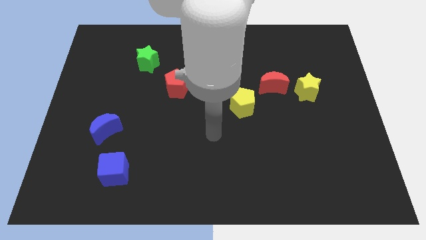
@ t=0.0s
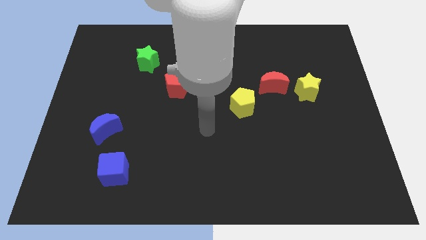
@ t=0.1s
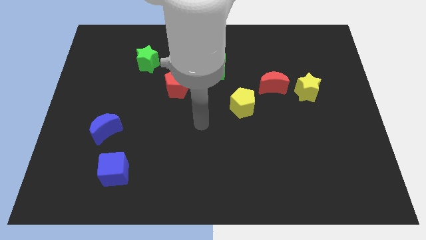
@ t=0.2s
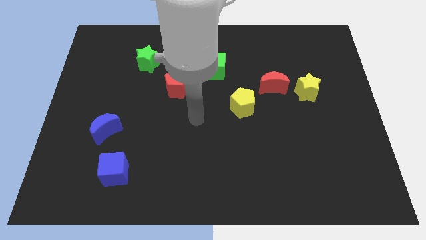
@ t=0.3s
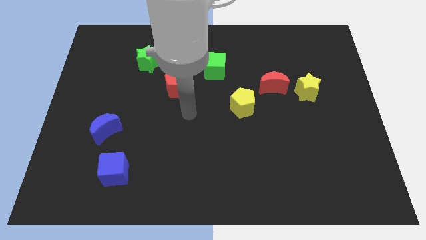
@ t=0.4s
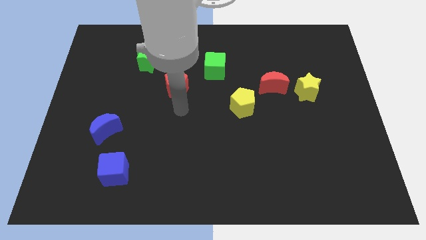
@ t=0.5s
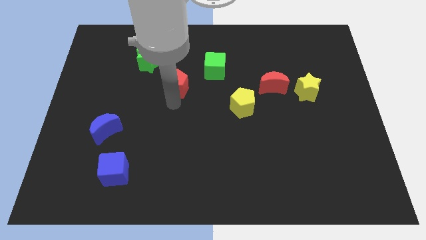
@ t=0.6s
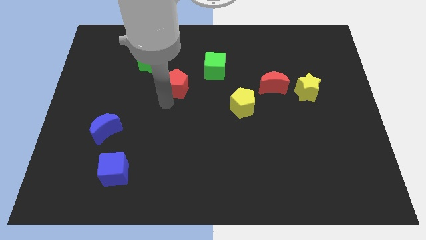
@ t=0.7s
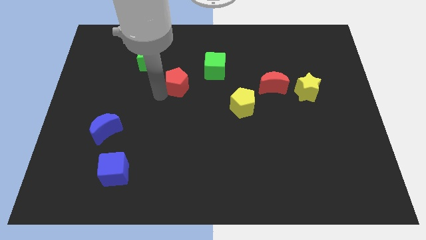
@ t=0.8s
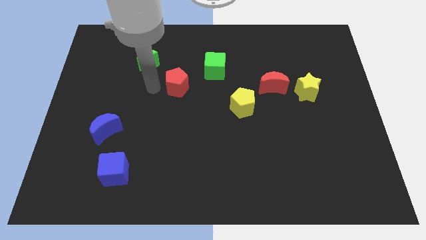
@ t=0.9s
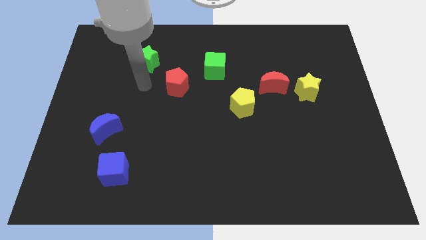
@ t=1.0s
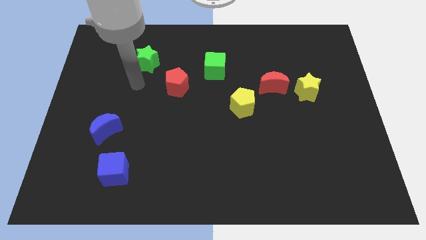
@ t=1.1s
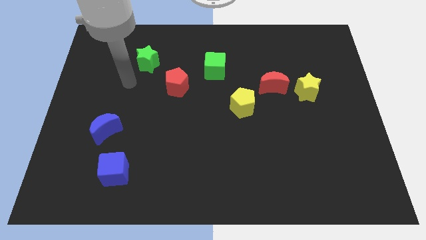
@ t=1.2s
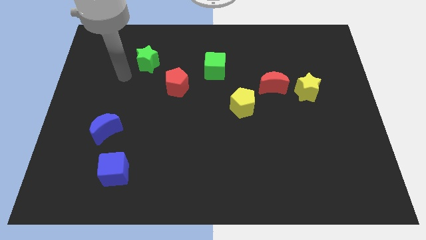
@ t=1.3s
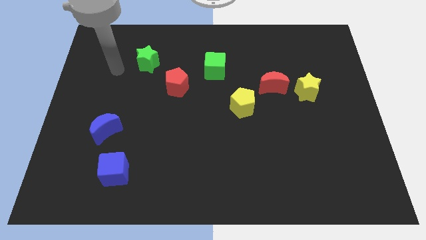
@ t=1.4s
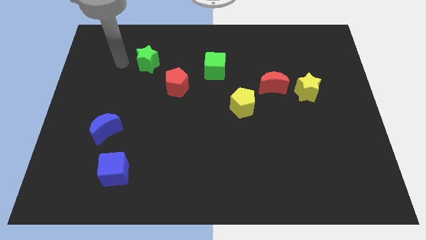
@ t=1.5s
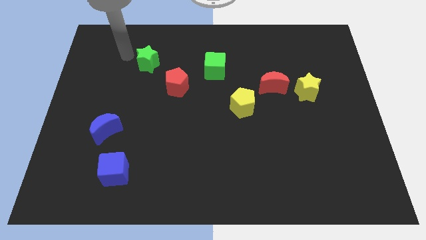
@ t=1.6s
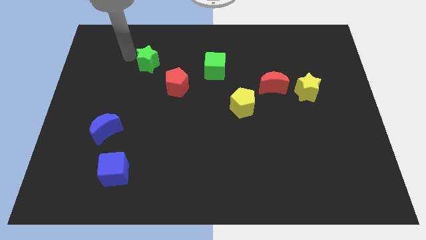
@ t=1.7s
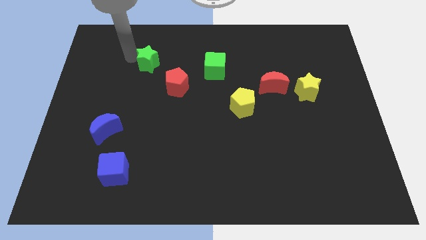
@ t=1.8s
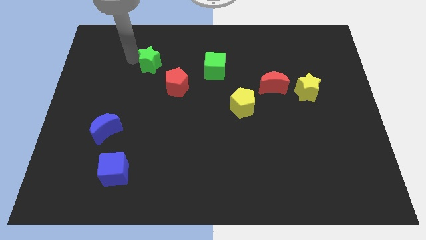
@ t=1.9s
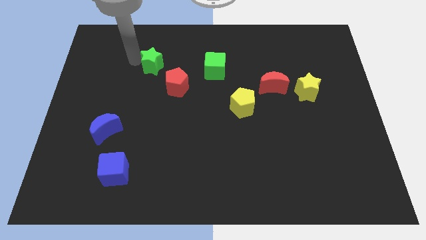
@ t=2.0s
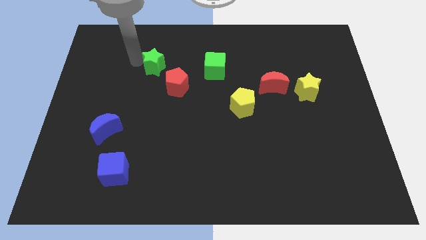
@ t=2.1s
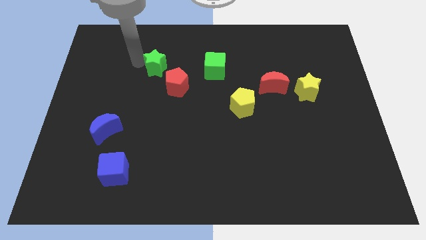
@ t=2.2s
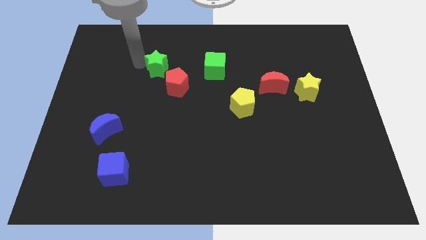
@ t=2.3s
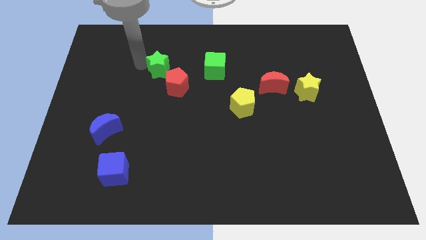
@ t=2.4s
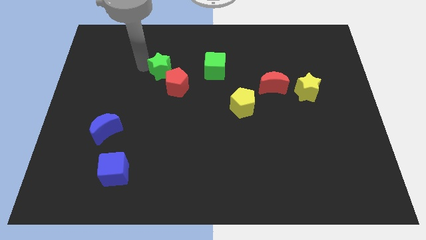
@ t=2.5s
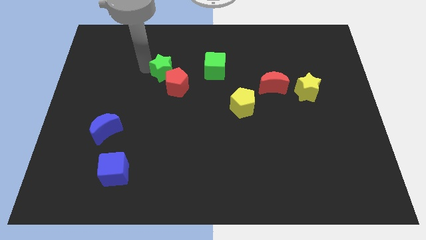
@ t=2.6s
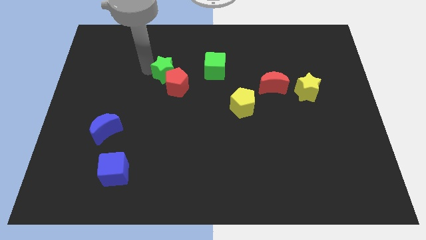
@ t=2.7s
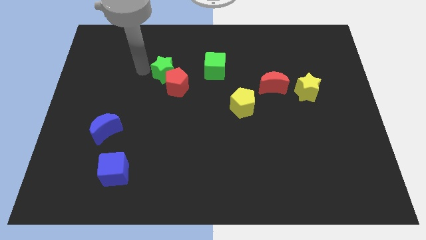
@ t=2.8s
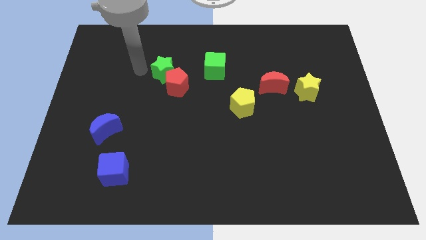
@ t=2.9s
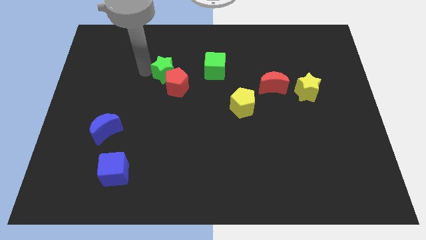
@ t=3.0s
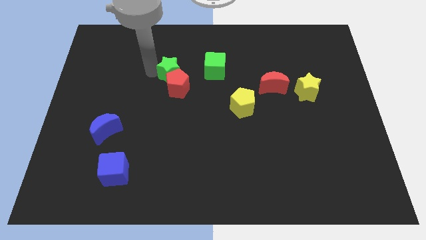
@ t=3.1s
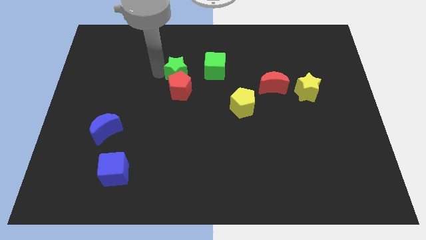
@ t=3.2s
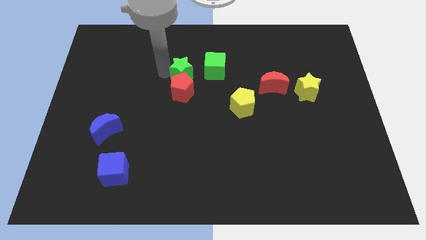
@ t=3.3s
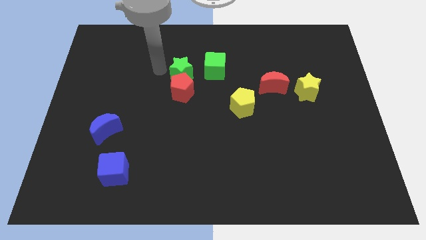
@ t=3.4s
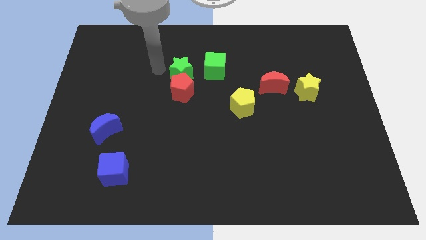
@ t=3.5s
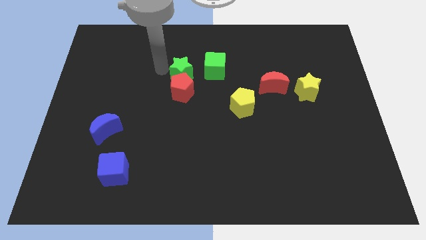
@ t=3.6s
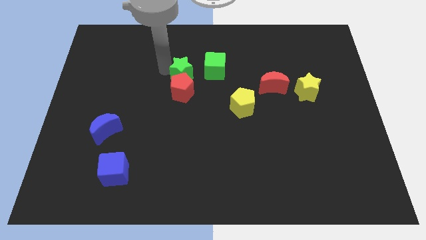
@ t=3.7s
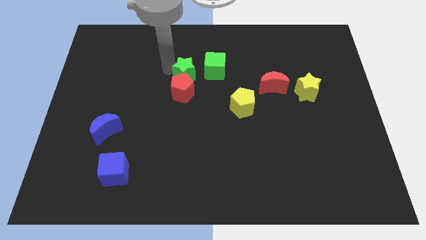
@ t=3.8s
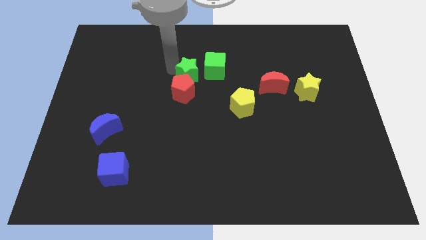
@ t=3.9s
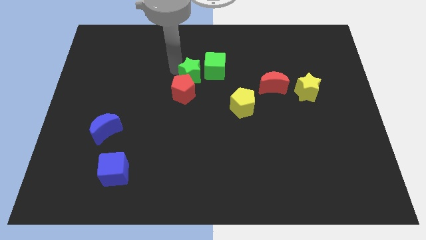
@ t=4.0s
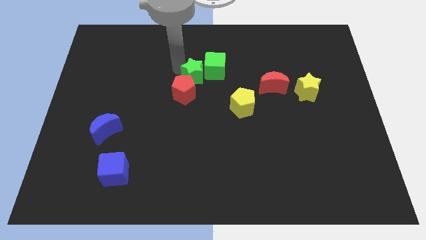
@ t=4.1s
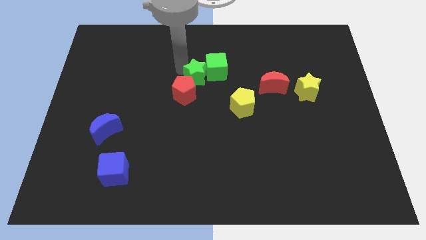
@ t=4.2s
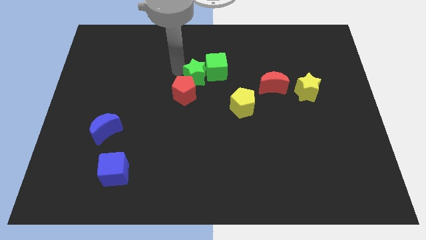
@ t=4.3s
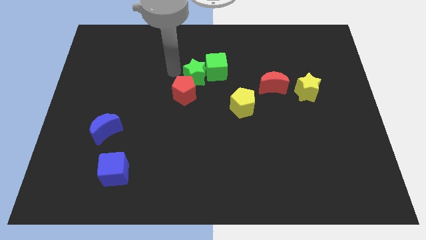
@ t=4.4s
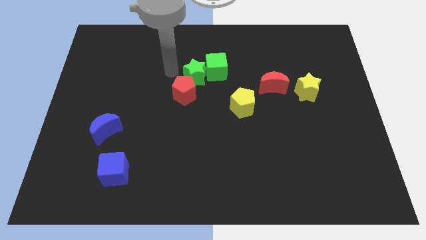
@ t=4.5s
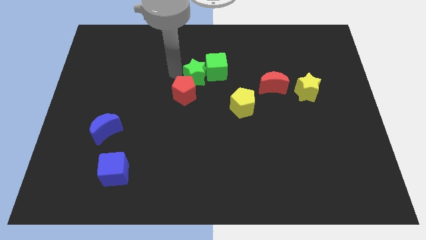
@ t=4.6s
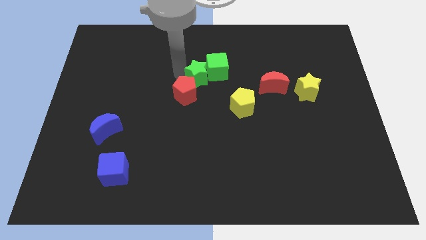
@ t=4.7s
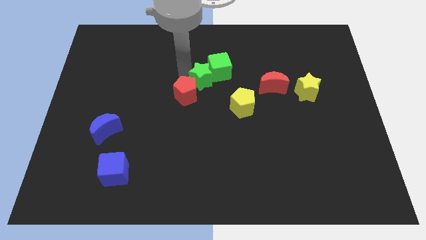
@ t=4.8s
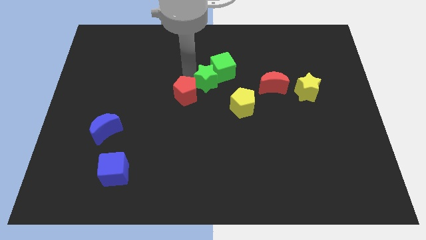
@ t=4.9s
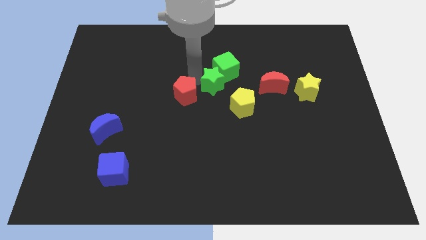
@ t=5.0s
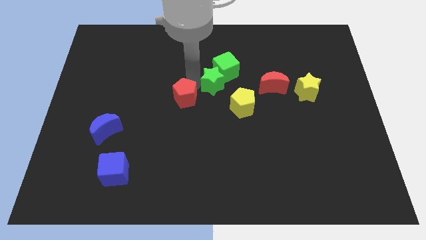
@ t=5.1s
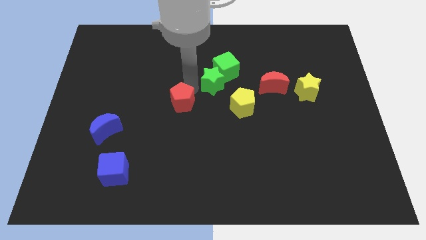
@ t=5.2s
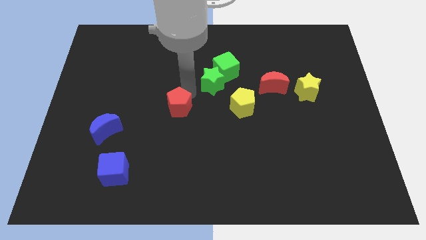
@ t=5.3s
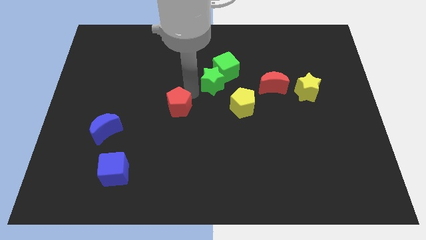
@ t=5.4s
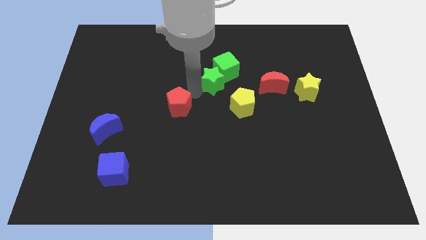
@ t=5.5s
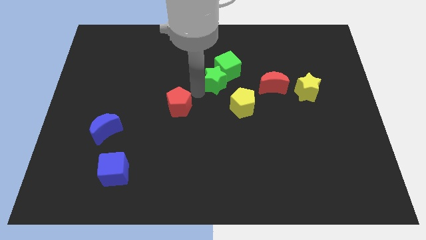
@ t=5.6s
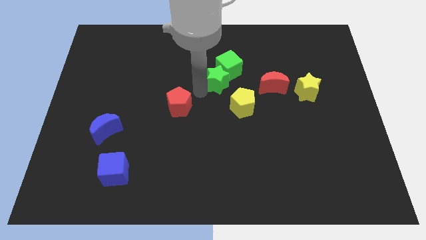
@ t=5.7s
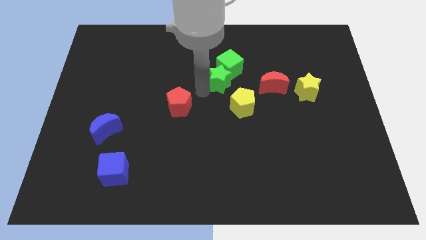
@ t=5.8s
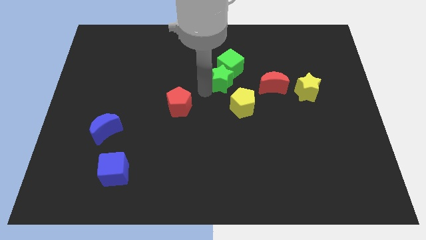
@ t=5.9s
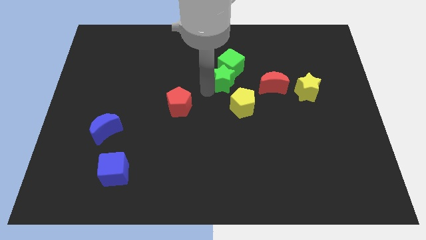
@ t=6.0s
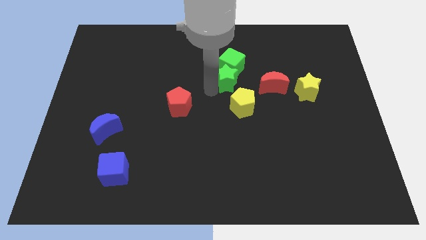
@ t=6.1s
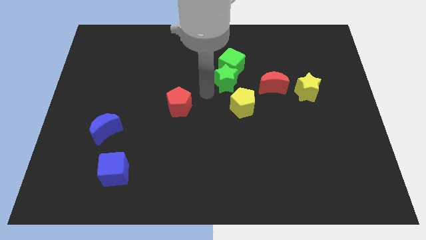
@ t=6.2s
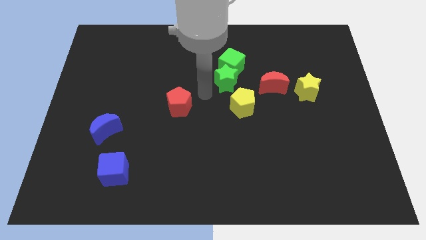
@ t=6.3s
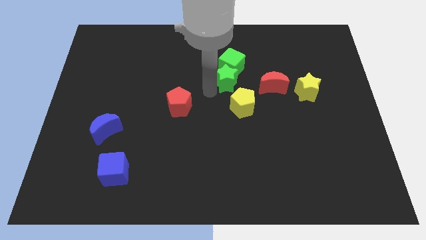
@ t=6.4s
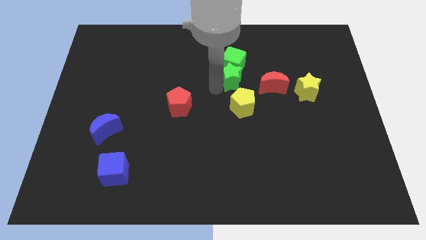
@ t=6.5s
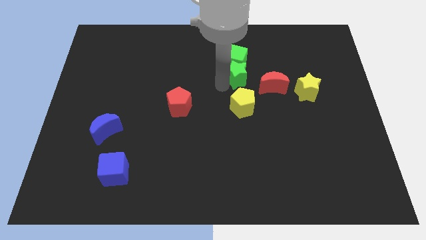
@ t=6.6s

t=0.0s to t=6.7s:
push the green star to the top left of the red moon
